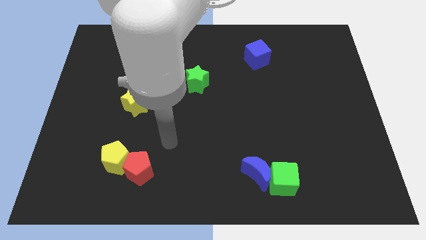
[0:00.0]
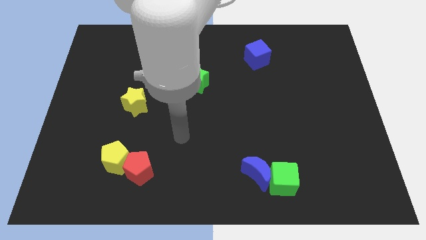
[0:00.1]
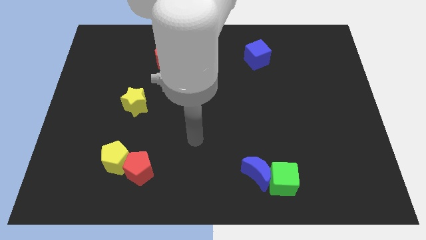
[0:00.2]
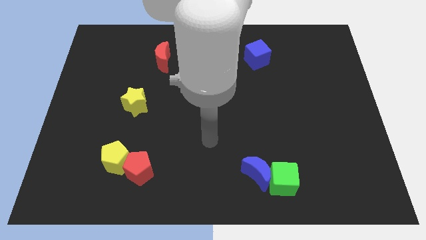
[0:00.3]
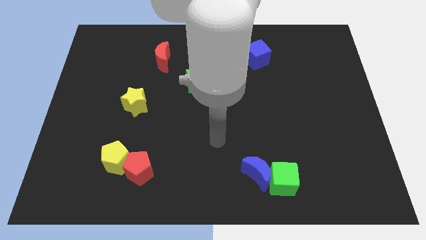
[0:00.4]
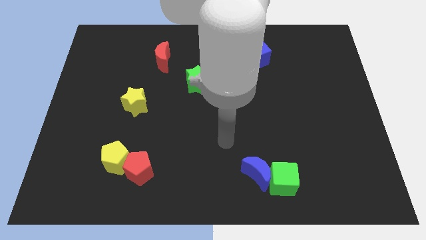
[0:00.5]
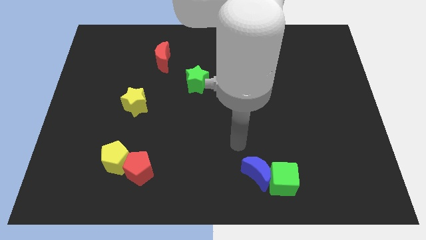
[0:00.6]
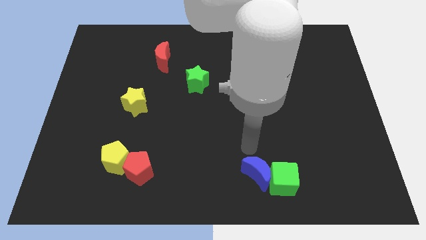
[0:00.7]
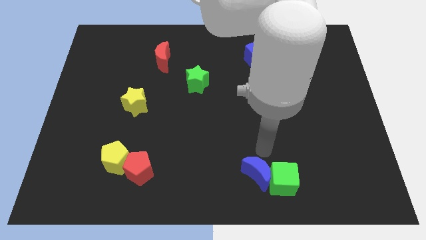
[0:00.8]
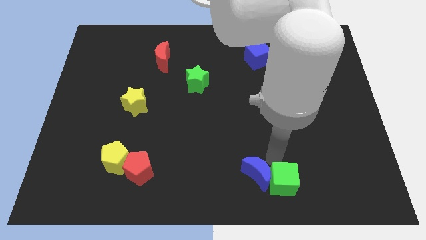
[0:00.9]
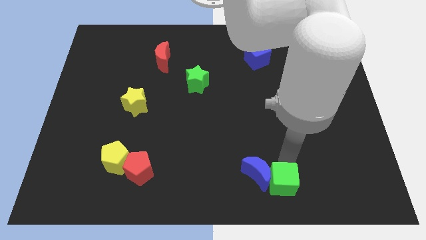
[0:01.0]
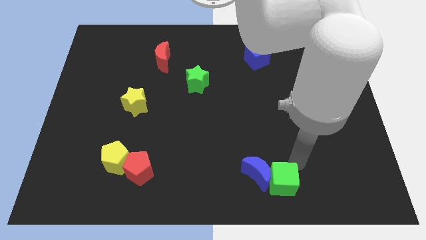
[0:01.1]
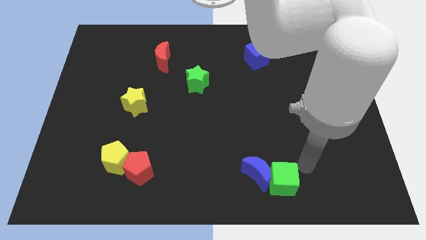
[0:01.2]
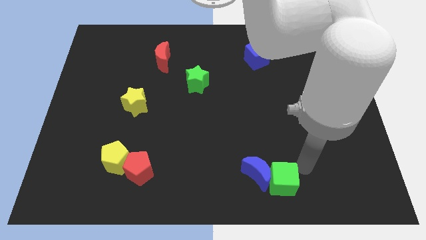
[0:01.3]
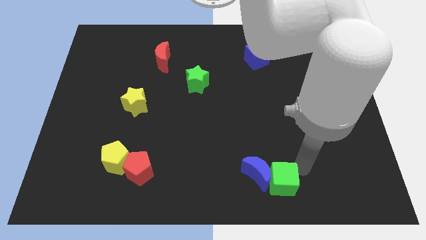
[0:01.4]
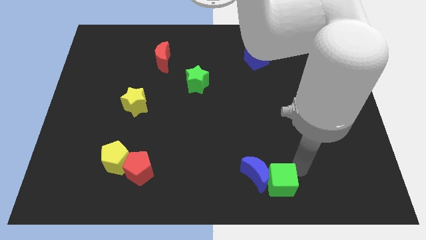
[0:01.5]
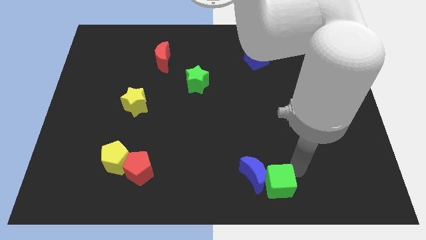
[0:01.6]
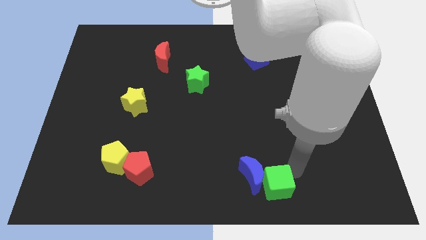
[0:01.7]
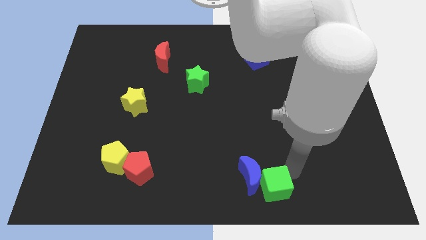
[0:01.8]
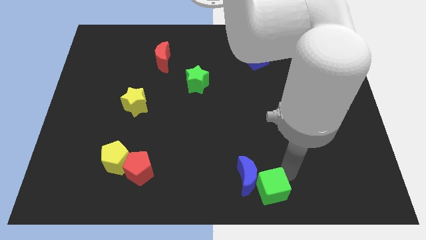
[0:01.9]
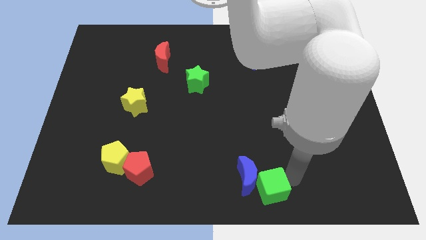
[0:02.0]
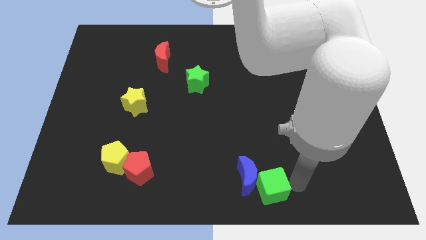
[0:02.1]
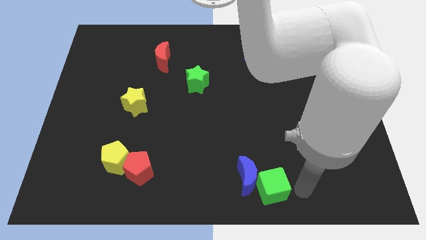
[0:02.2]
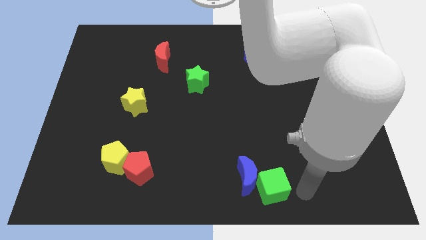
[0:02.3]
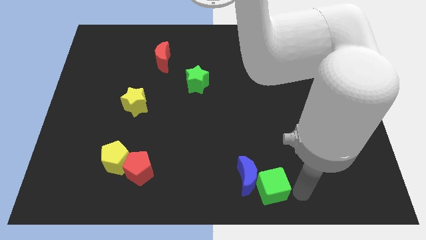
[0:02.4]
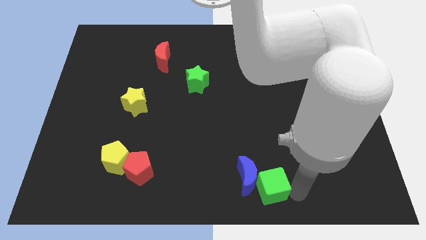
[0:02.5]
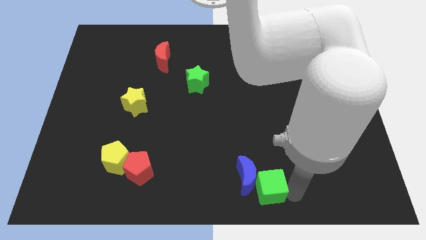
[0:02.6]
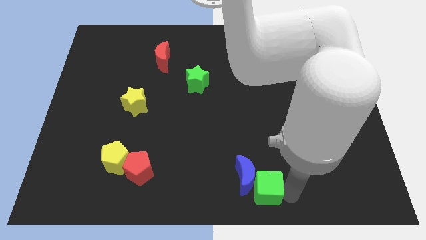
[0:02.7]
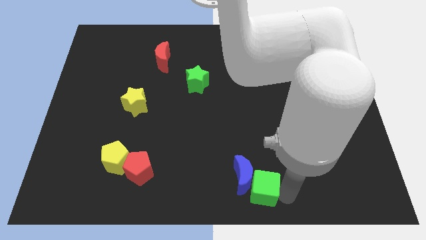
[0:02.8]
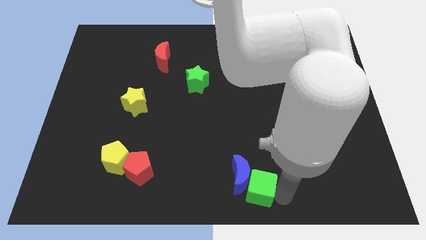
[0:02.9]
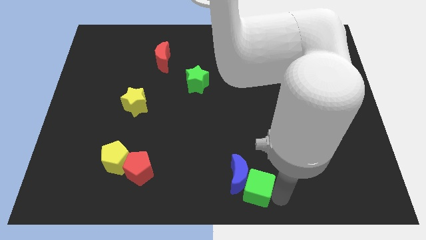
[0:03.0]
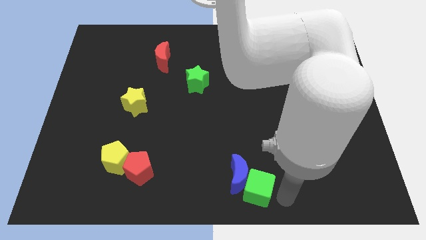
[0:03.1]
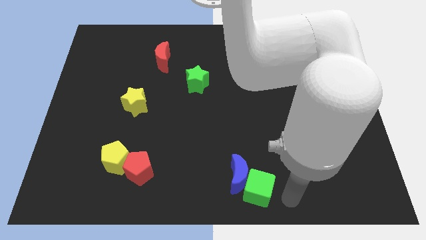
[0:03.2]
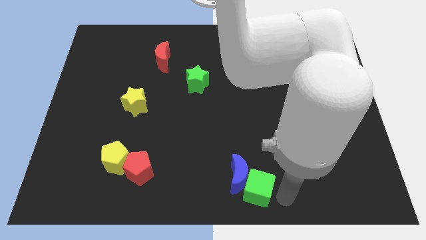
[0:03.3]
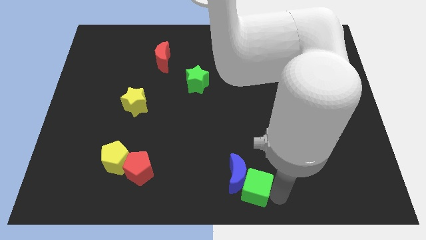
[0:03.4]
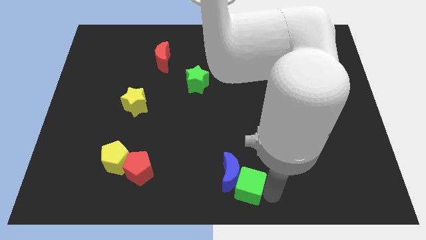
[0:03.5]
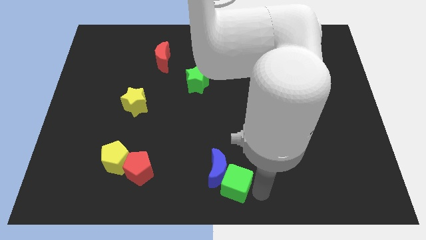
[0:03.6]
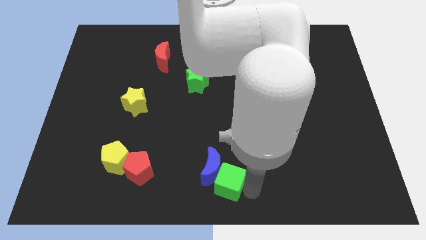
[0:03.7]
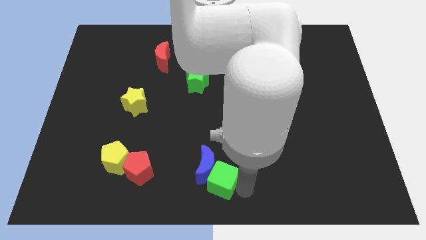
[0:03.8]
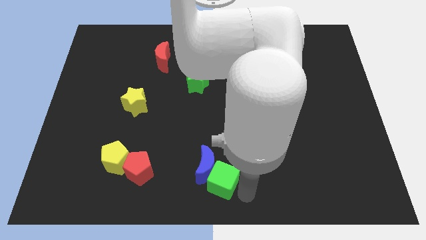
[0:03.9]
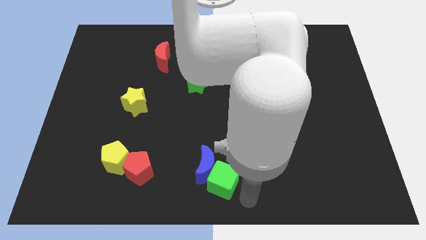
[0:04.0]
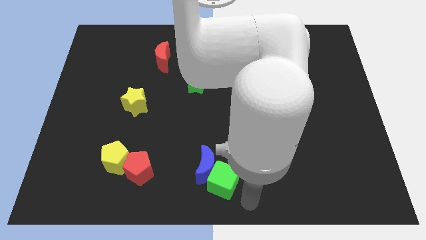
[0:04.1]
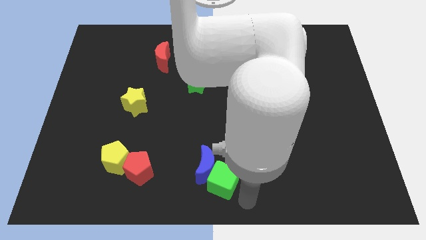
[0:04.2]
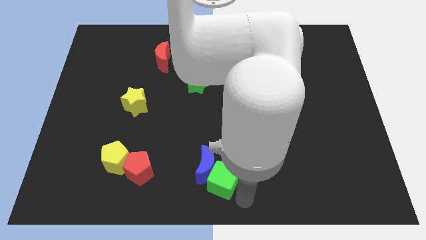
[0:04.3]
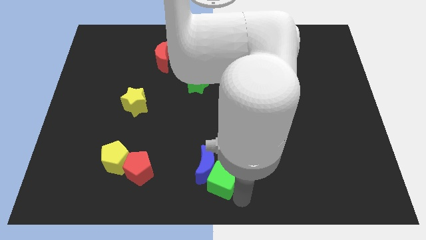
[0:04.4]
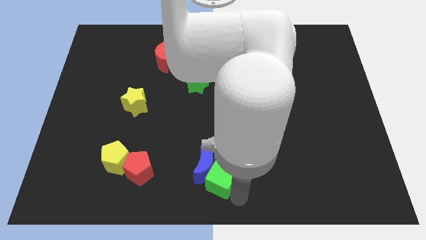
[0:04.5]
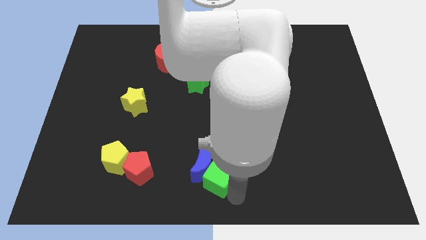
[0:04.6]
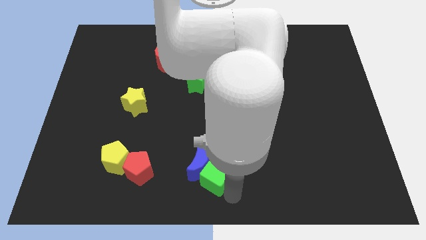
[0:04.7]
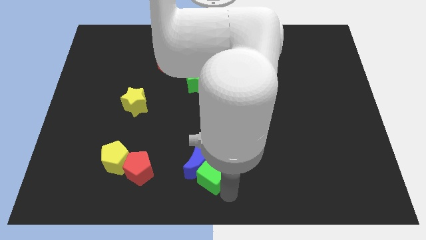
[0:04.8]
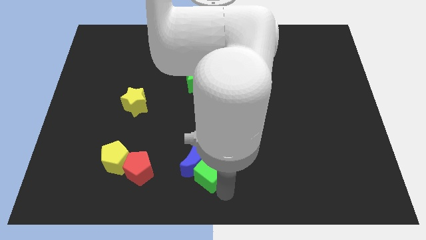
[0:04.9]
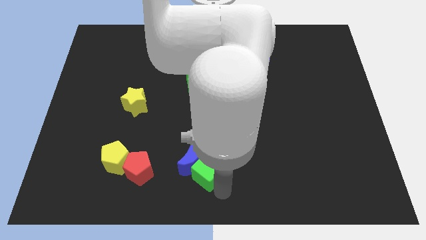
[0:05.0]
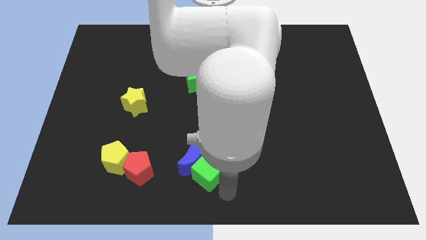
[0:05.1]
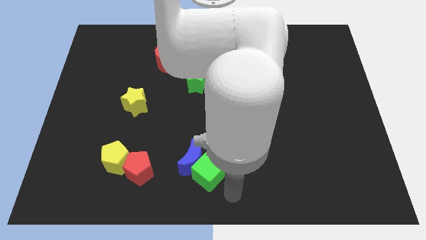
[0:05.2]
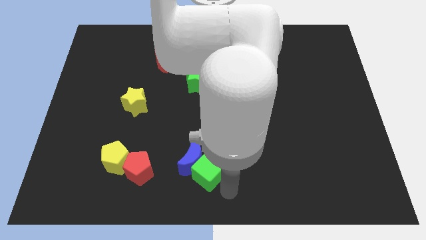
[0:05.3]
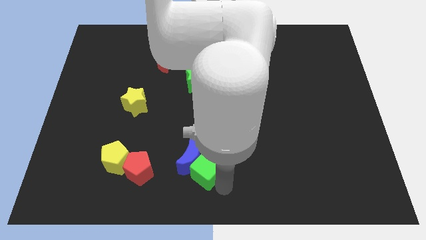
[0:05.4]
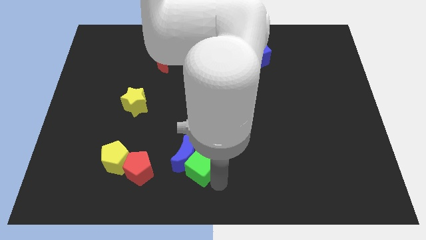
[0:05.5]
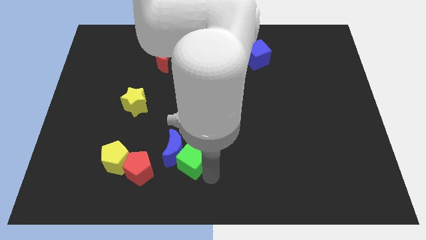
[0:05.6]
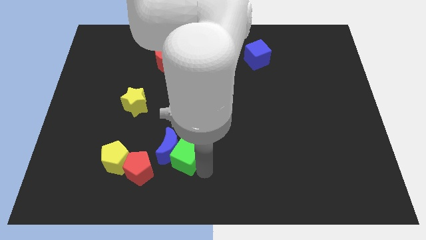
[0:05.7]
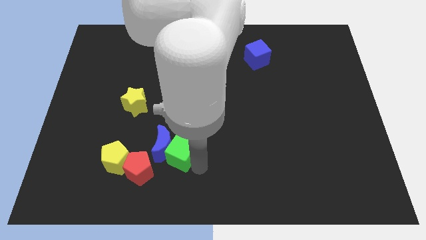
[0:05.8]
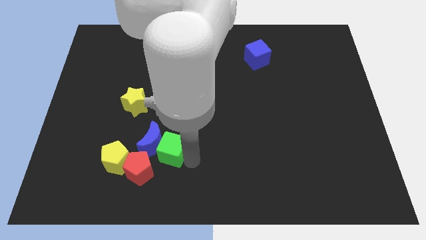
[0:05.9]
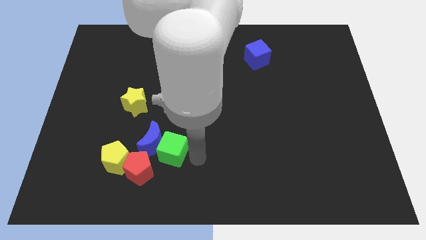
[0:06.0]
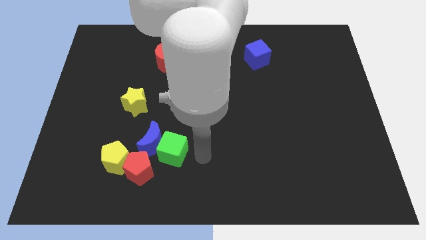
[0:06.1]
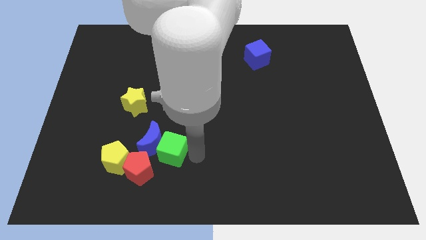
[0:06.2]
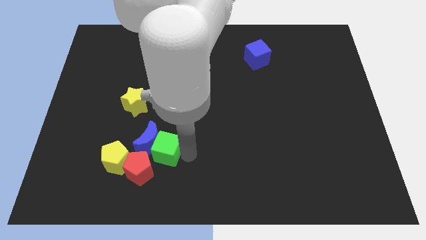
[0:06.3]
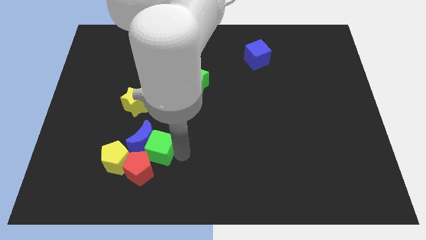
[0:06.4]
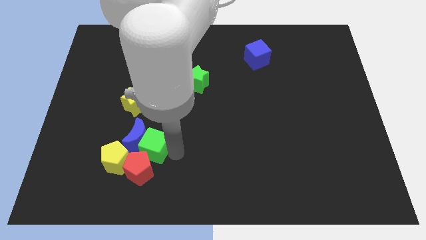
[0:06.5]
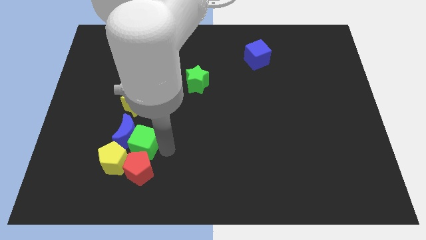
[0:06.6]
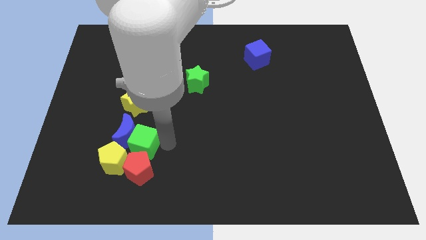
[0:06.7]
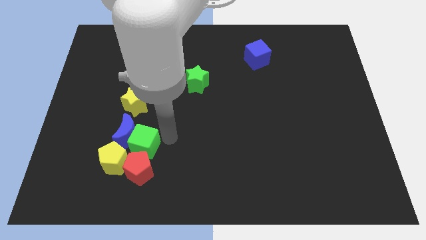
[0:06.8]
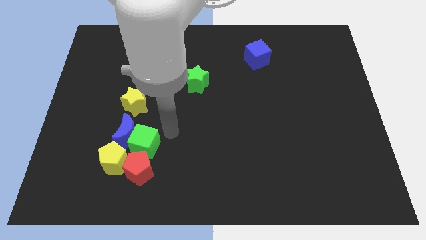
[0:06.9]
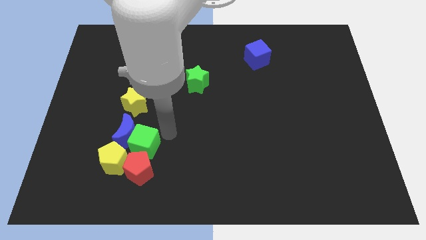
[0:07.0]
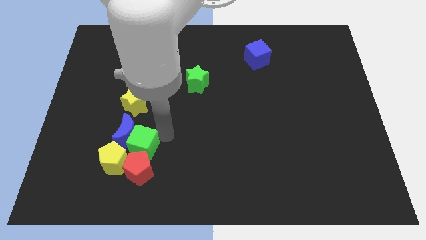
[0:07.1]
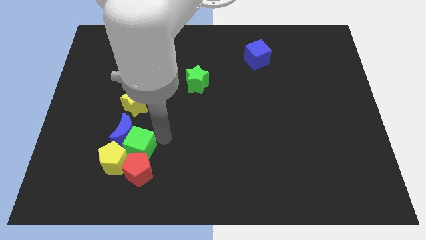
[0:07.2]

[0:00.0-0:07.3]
move the green cube close to the yellow pentagon
